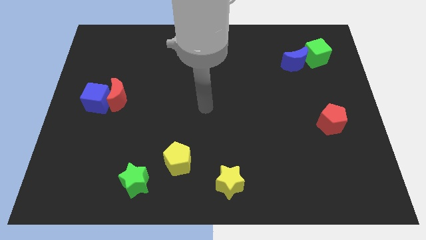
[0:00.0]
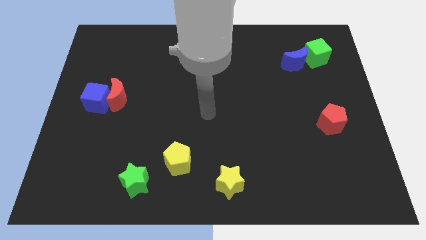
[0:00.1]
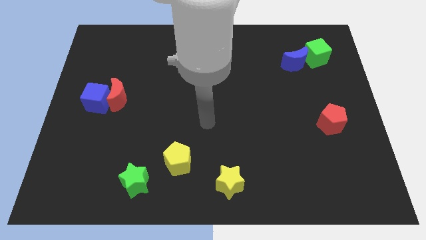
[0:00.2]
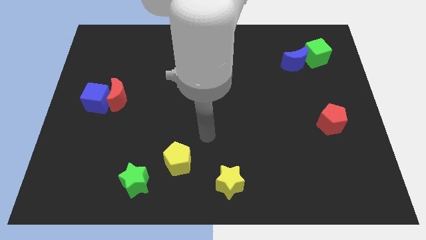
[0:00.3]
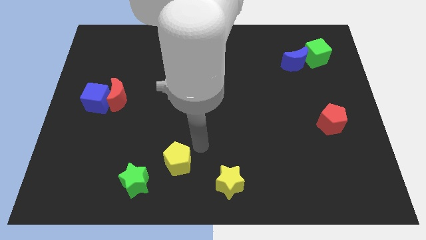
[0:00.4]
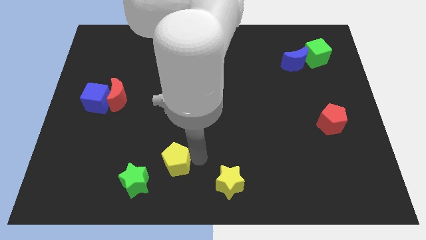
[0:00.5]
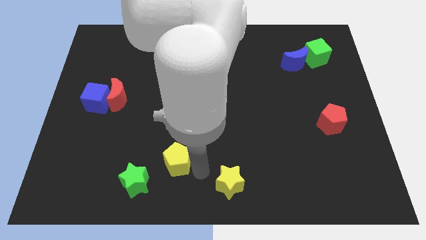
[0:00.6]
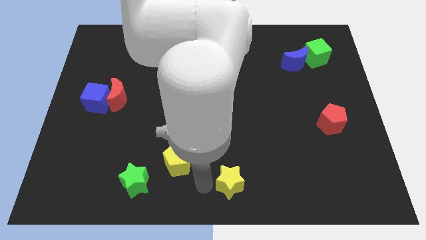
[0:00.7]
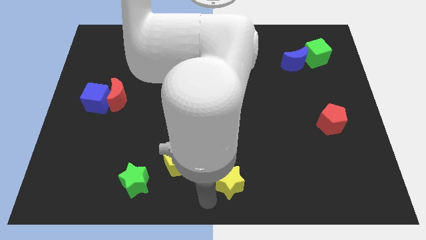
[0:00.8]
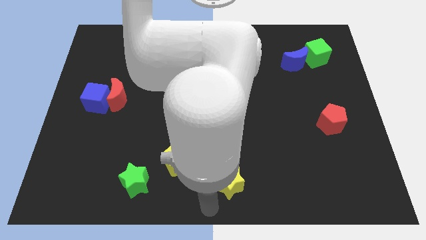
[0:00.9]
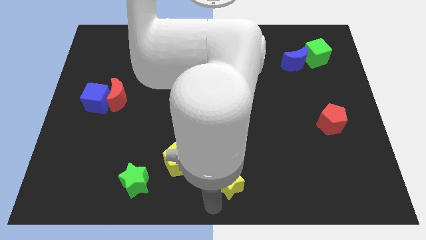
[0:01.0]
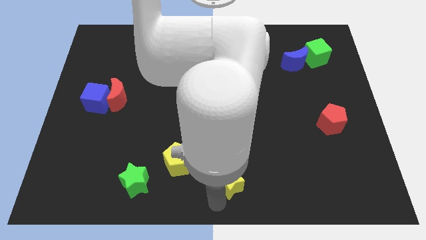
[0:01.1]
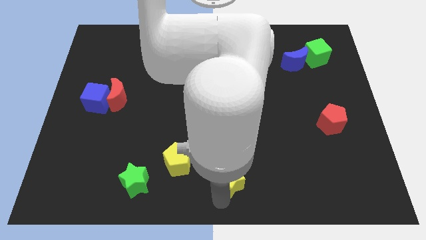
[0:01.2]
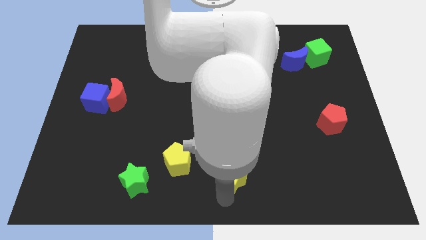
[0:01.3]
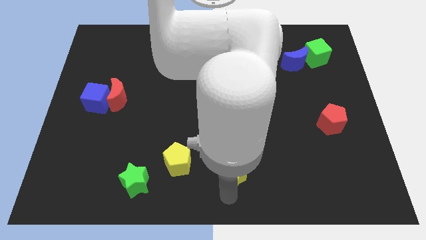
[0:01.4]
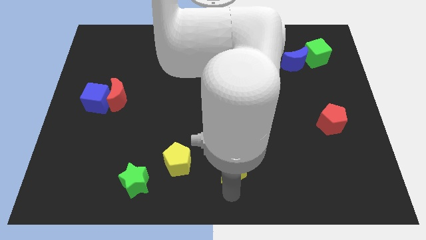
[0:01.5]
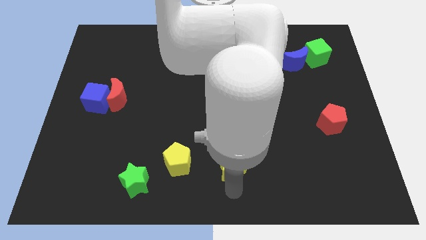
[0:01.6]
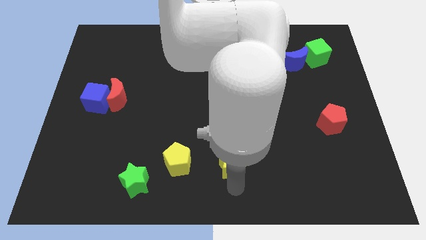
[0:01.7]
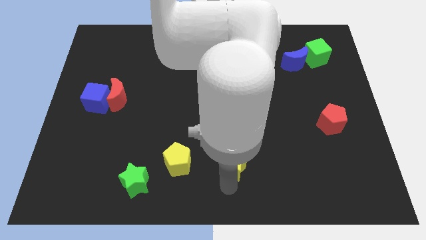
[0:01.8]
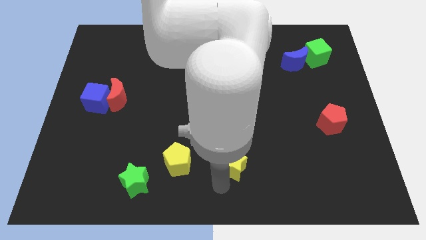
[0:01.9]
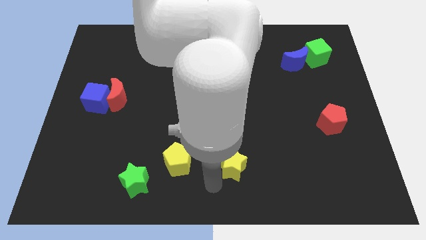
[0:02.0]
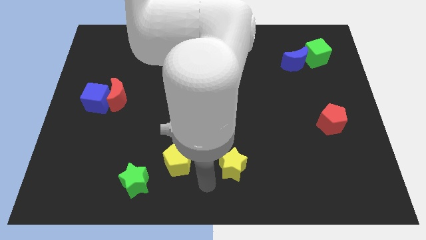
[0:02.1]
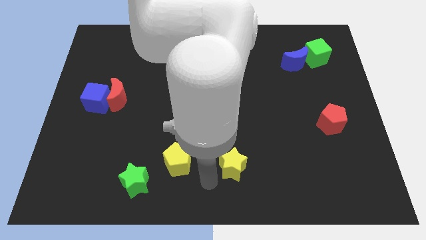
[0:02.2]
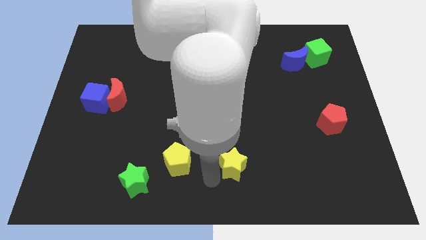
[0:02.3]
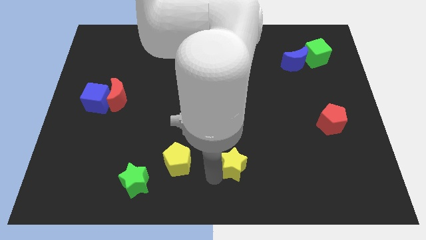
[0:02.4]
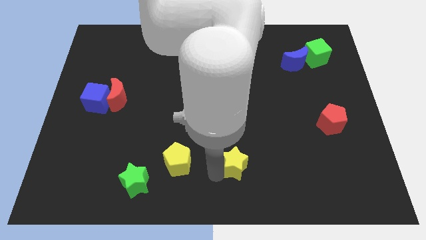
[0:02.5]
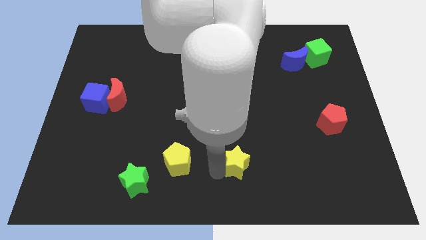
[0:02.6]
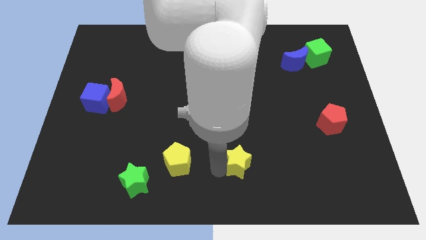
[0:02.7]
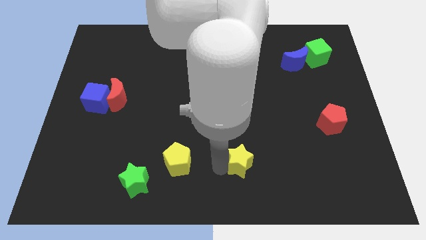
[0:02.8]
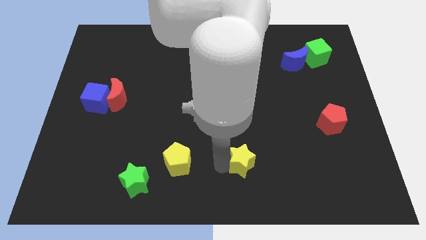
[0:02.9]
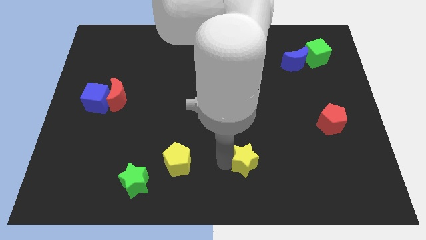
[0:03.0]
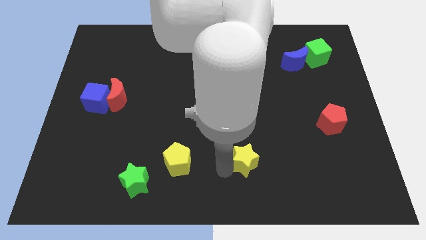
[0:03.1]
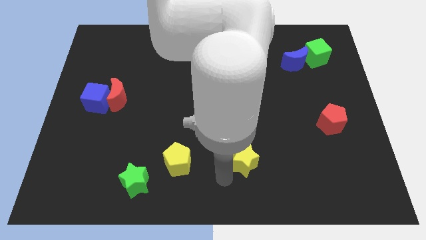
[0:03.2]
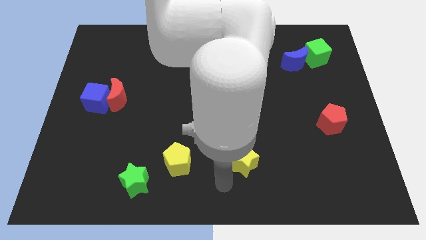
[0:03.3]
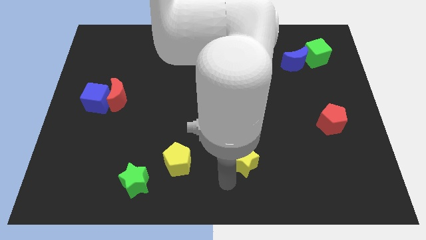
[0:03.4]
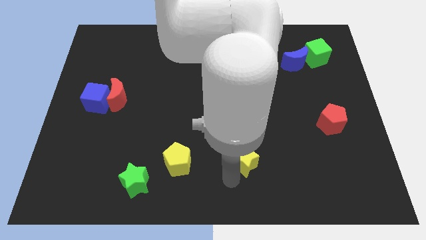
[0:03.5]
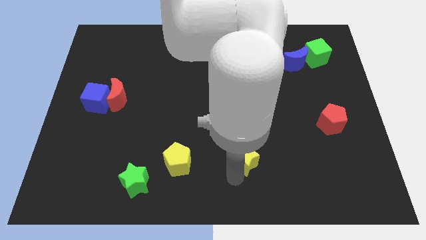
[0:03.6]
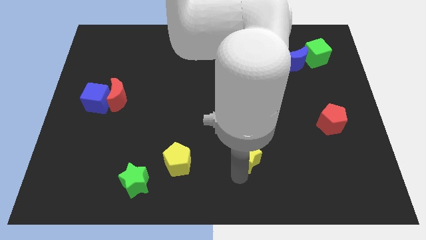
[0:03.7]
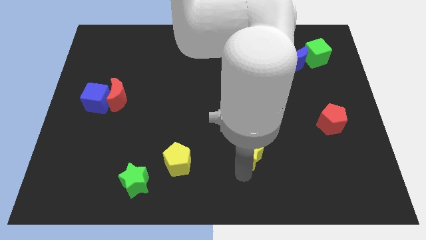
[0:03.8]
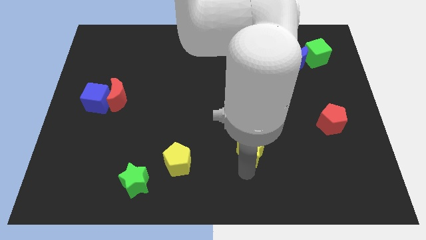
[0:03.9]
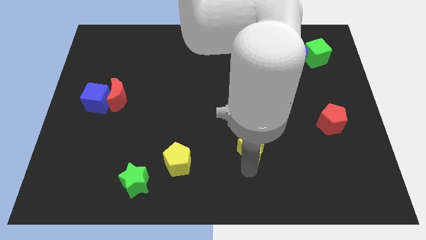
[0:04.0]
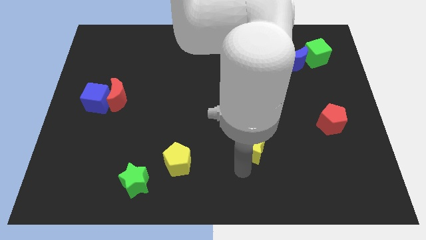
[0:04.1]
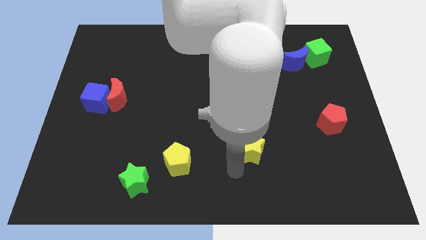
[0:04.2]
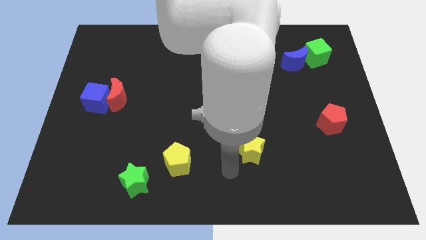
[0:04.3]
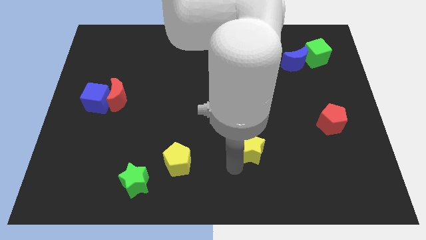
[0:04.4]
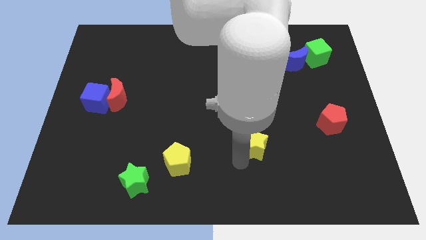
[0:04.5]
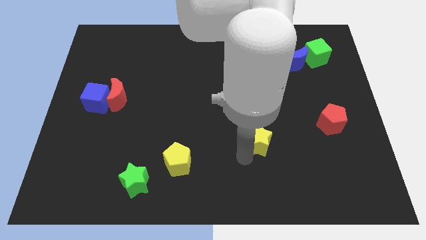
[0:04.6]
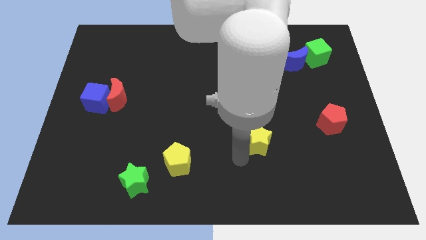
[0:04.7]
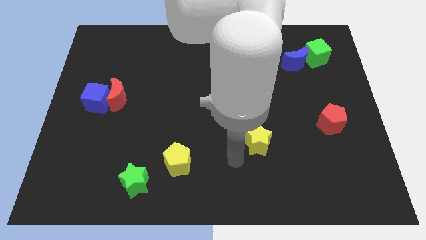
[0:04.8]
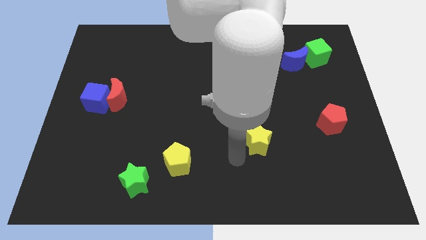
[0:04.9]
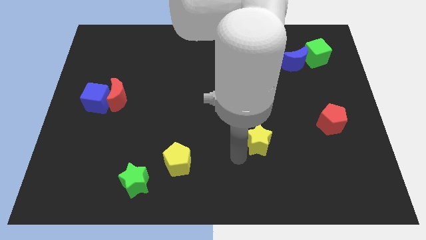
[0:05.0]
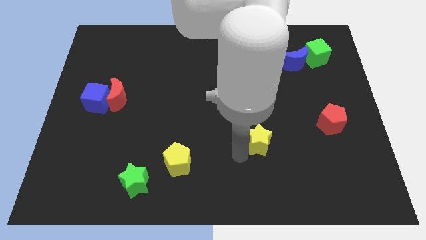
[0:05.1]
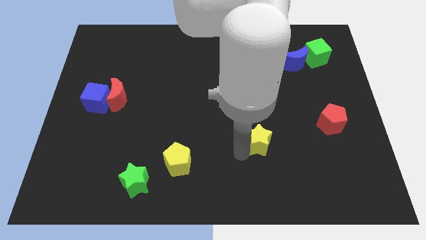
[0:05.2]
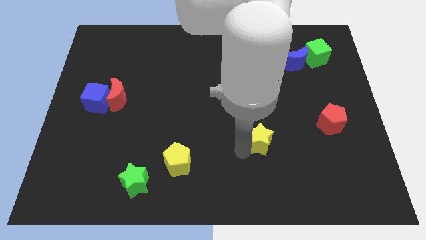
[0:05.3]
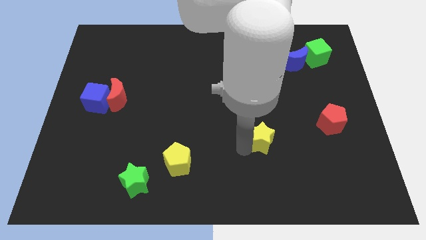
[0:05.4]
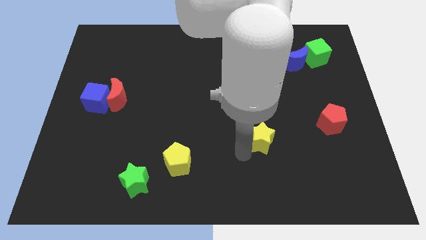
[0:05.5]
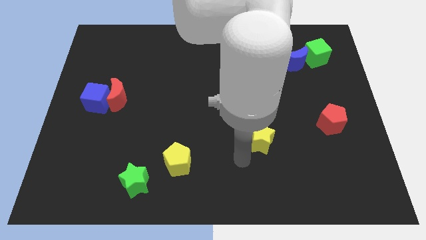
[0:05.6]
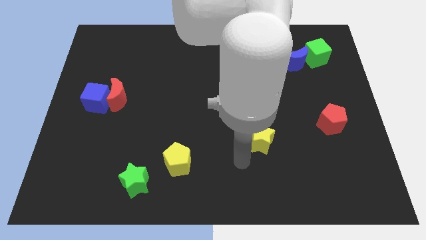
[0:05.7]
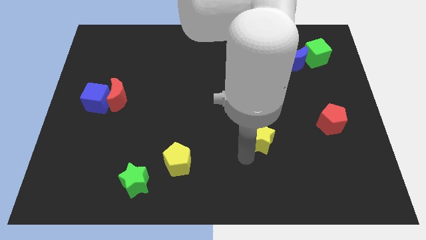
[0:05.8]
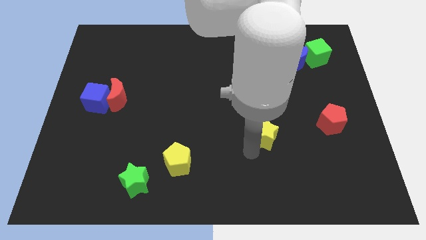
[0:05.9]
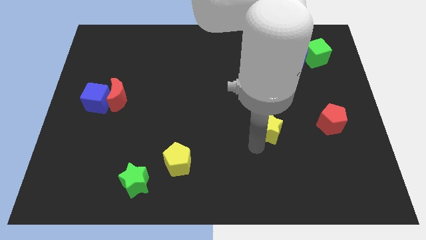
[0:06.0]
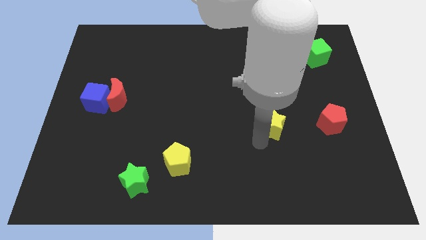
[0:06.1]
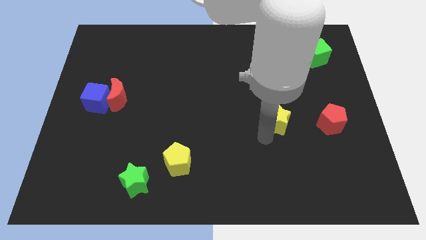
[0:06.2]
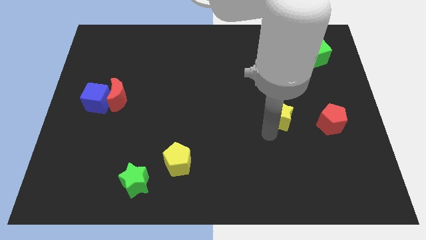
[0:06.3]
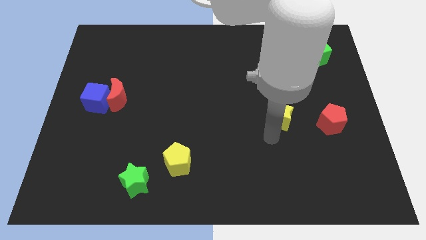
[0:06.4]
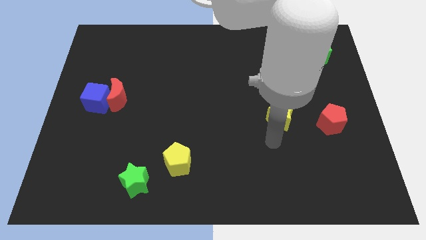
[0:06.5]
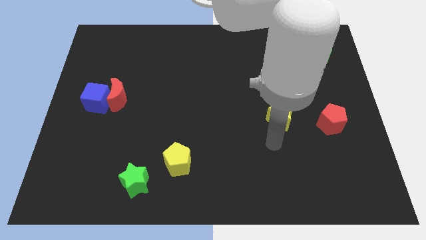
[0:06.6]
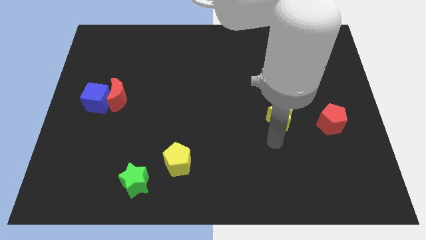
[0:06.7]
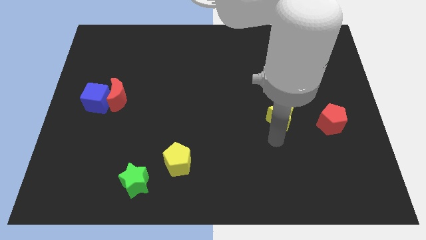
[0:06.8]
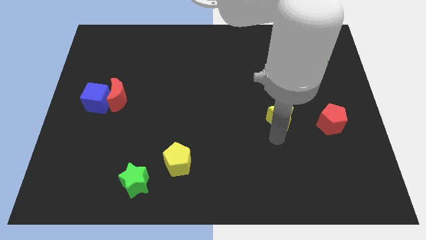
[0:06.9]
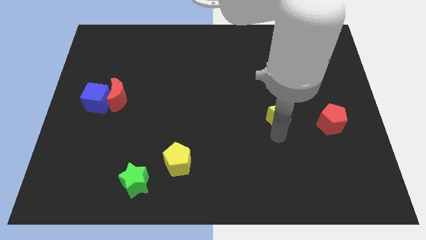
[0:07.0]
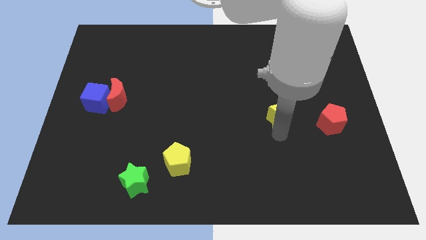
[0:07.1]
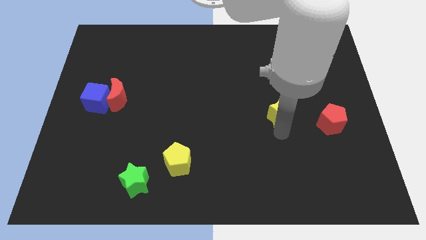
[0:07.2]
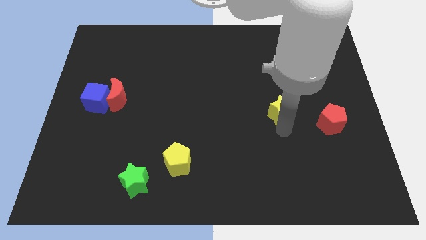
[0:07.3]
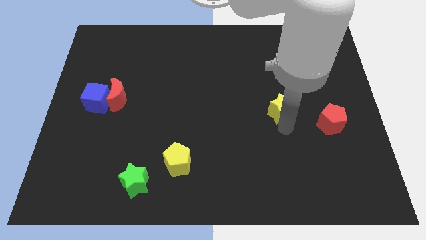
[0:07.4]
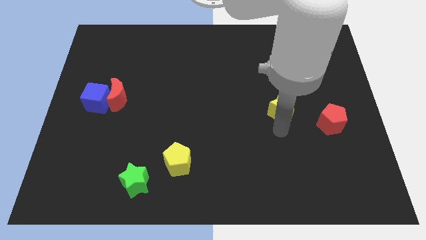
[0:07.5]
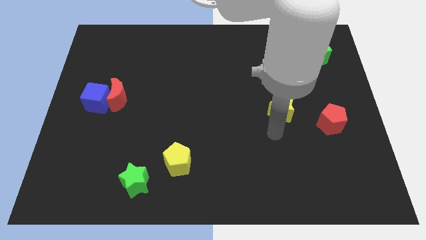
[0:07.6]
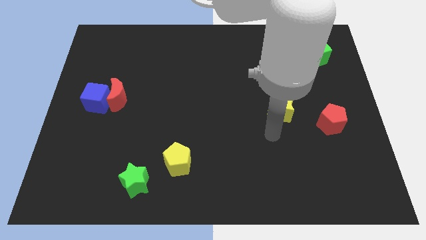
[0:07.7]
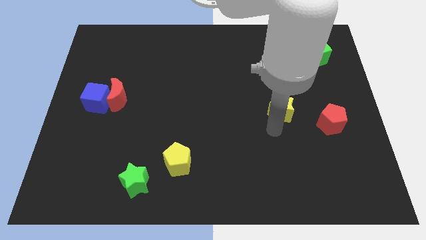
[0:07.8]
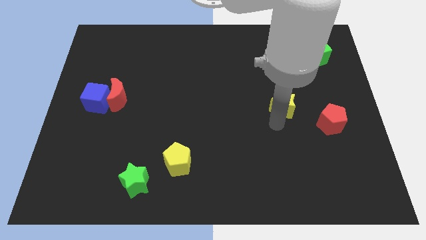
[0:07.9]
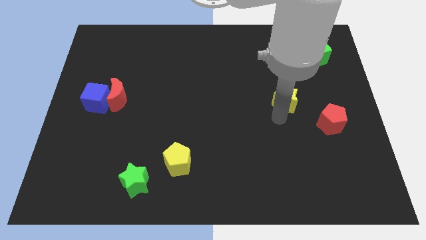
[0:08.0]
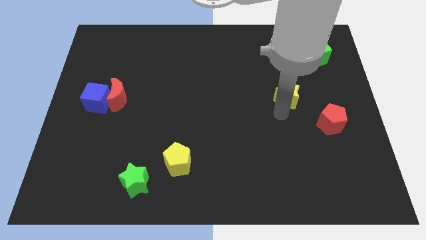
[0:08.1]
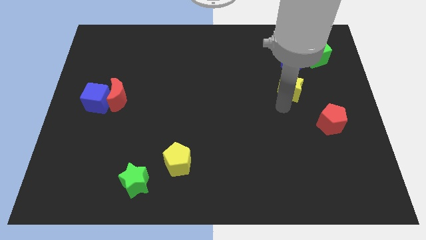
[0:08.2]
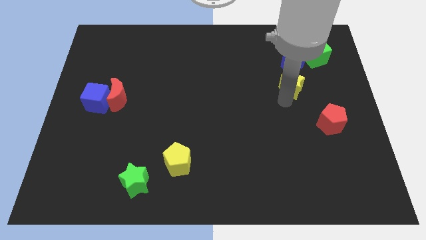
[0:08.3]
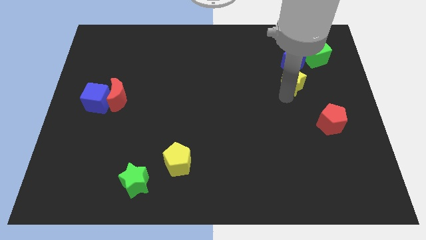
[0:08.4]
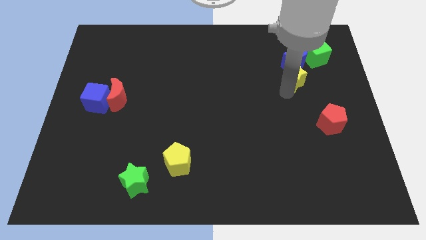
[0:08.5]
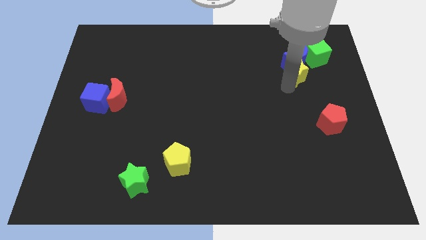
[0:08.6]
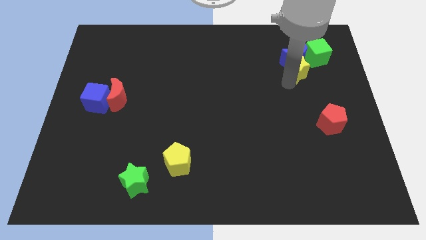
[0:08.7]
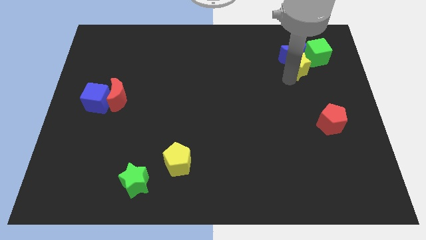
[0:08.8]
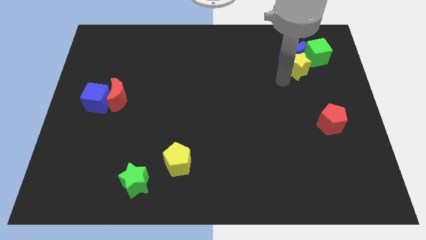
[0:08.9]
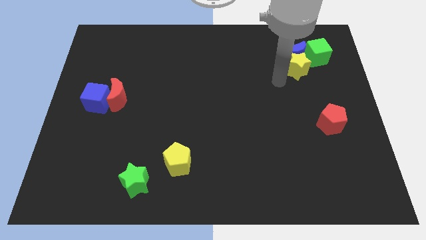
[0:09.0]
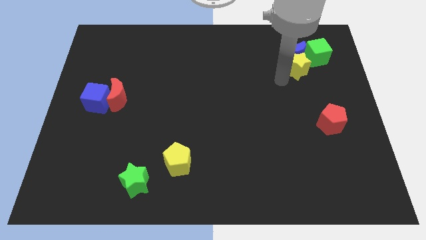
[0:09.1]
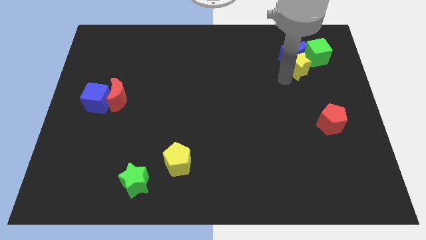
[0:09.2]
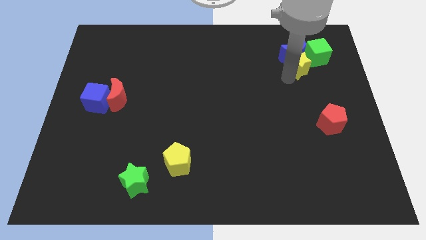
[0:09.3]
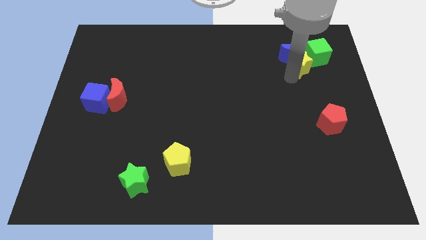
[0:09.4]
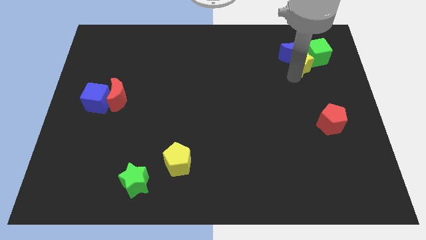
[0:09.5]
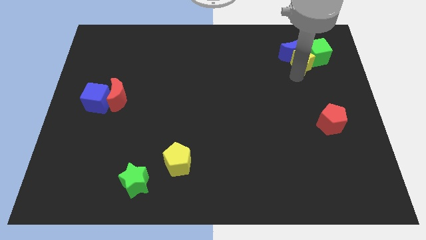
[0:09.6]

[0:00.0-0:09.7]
put the yellow star close to the green cube
